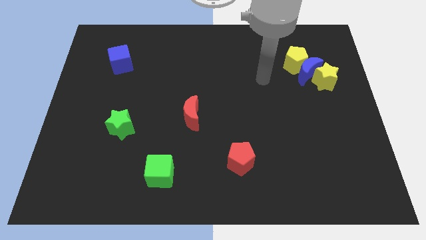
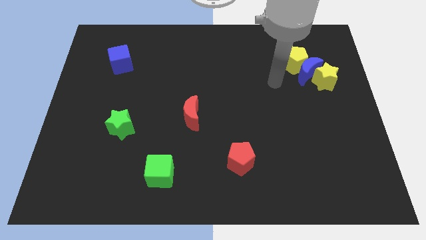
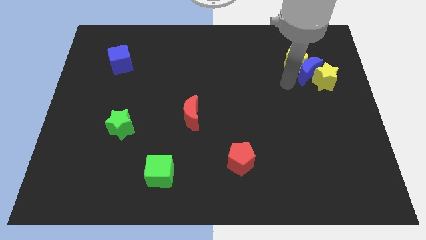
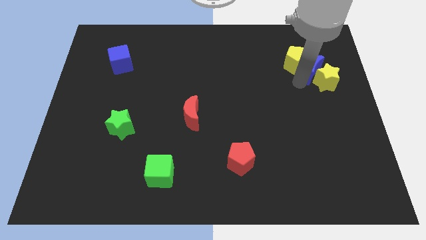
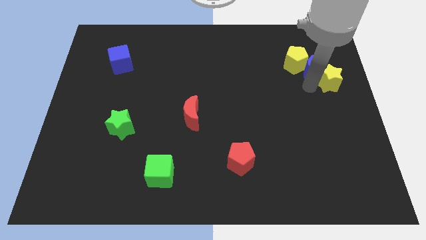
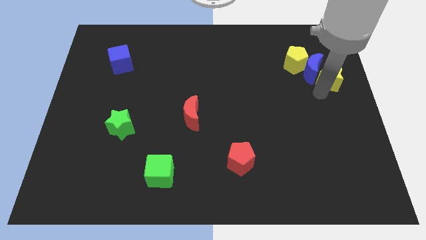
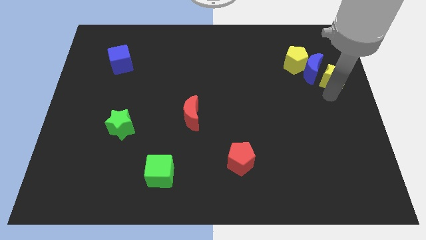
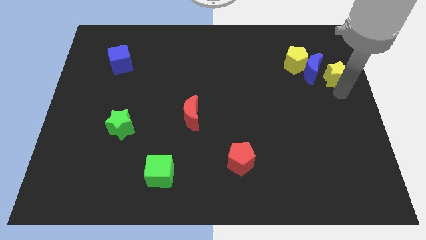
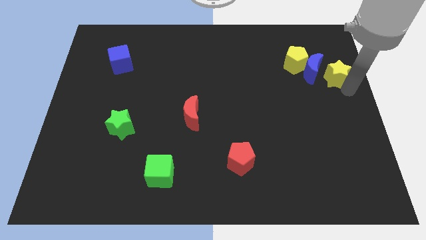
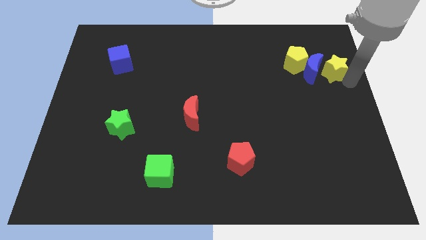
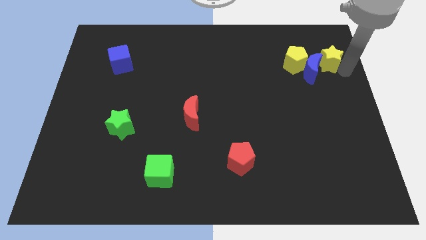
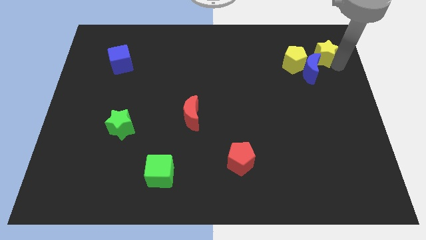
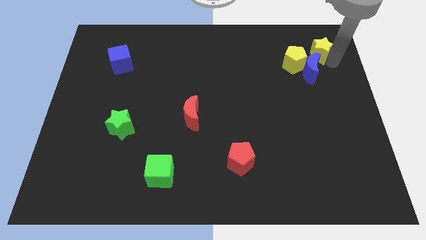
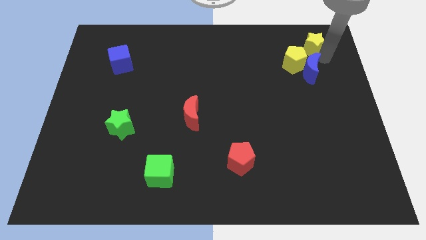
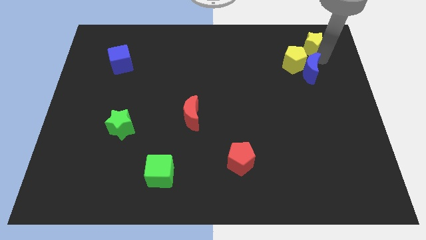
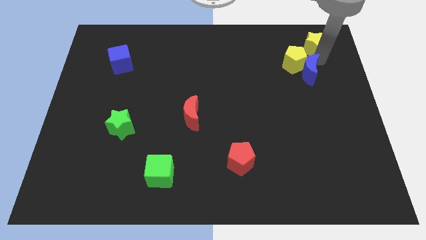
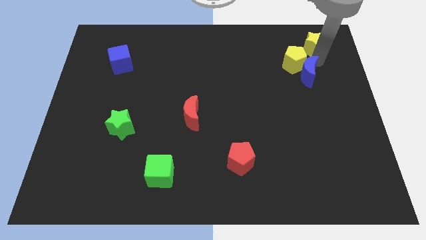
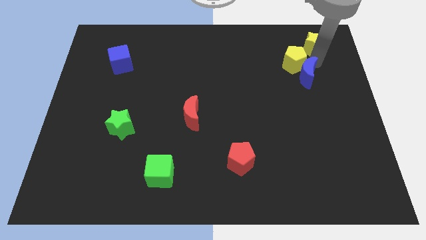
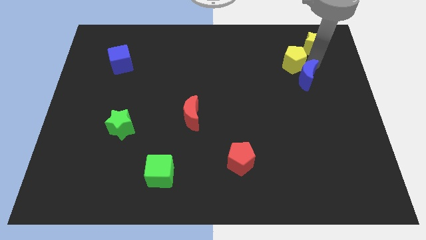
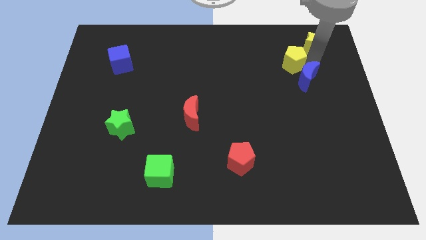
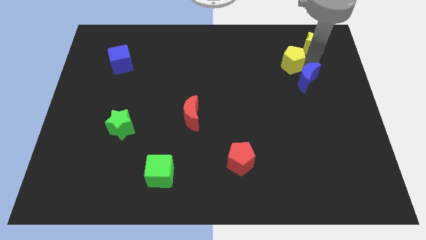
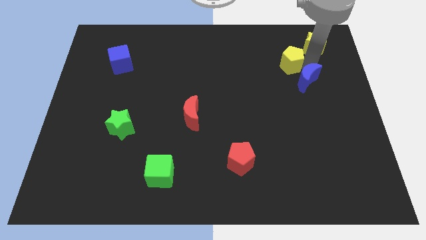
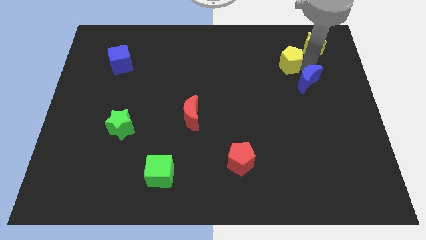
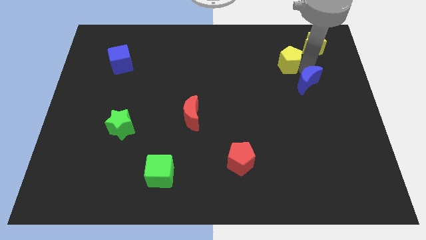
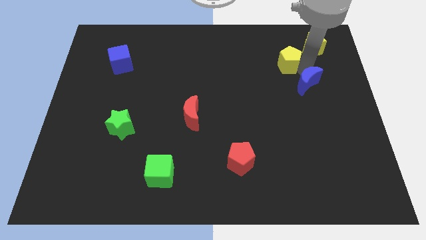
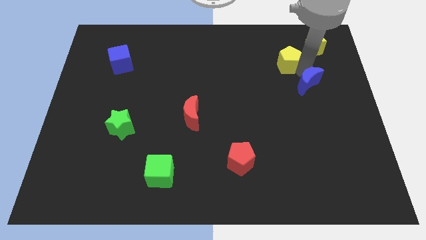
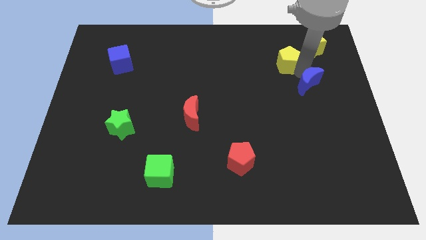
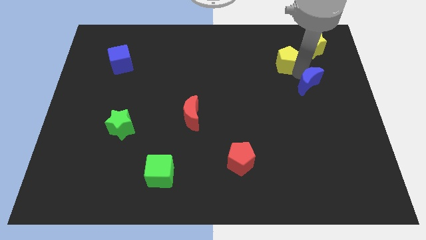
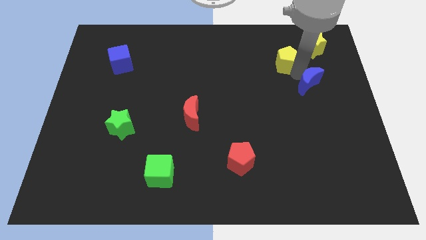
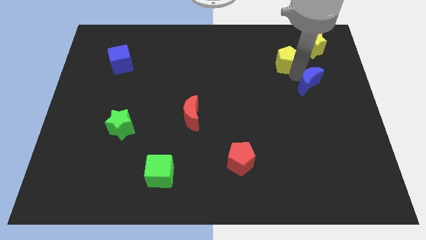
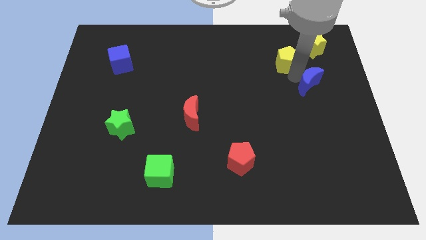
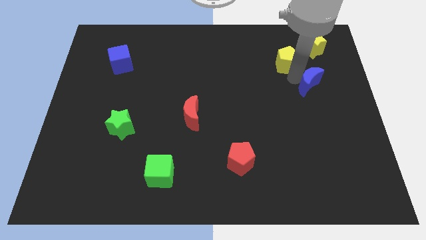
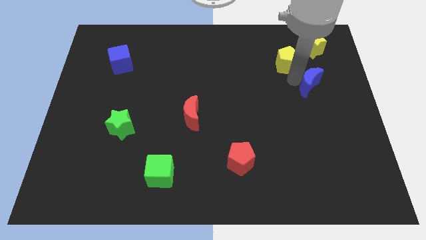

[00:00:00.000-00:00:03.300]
move the blue moon away from the yellow pentagon and yellow star

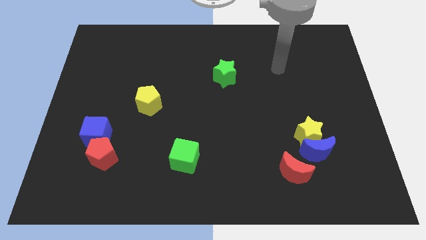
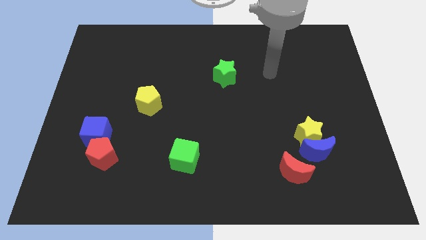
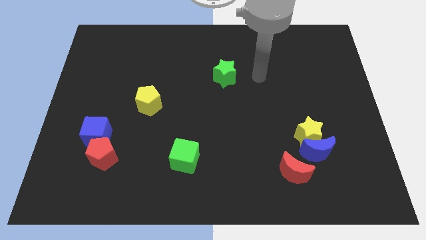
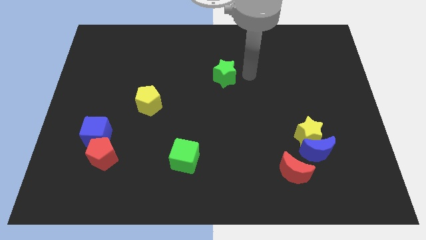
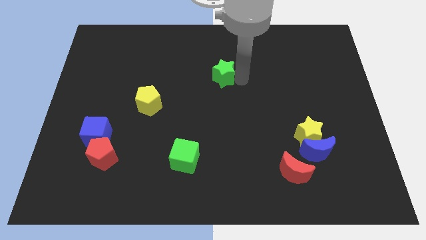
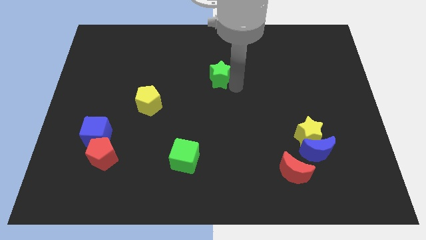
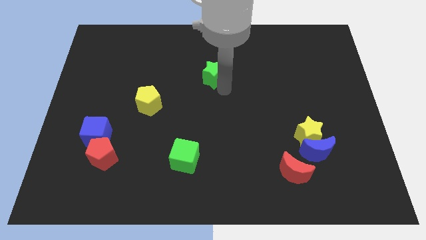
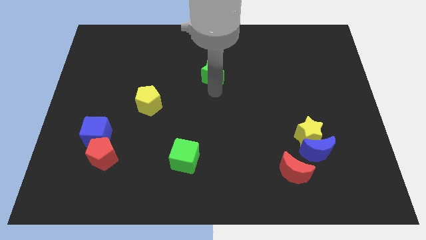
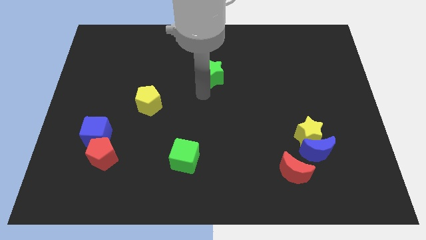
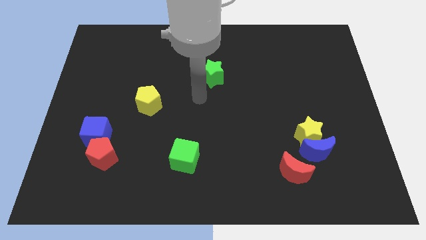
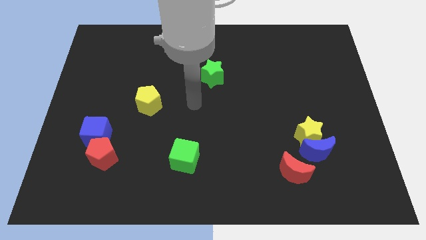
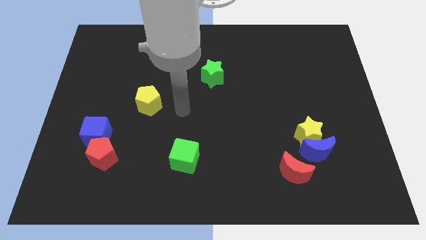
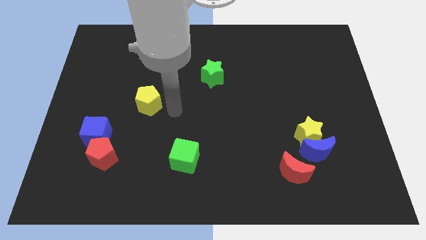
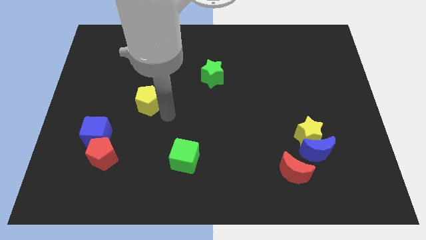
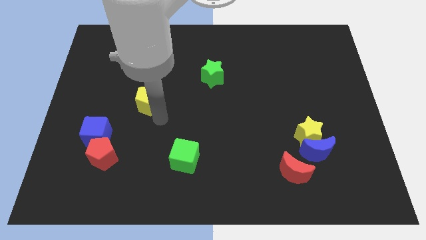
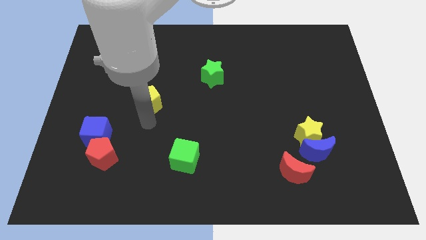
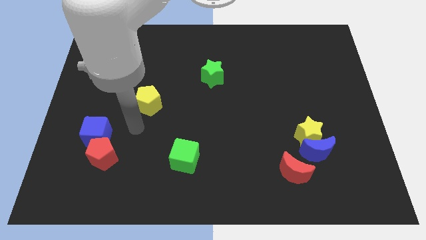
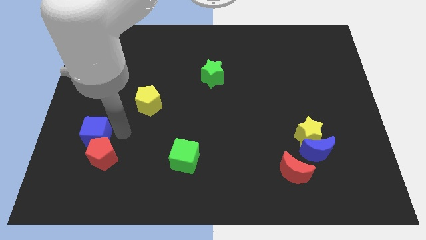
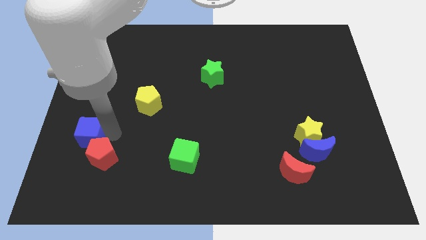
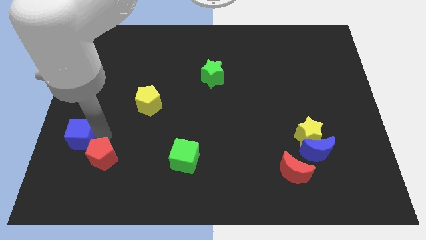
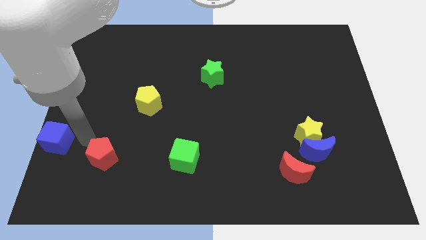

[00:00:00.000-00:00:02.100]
separate the red pentagon from the blue cube

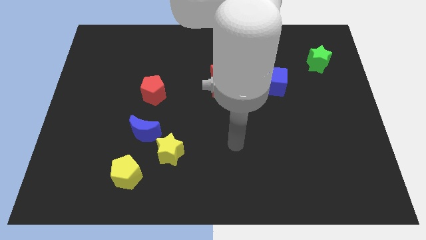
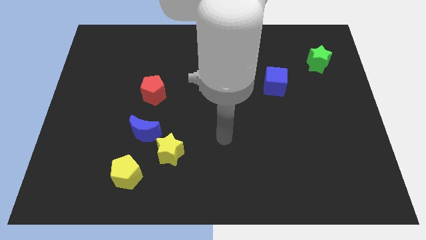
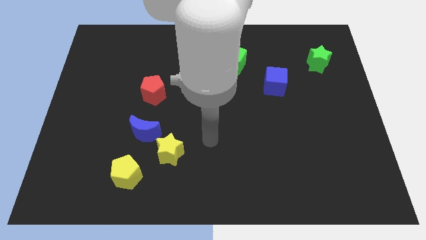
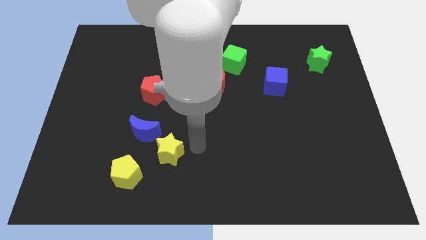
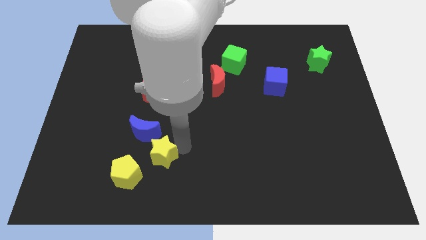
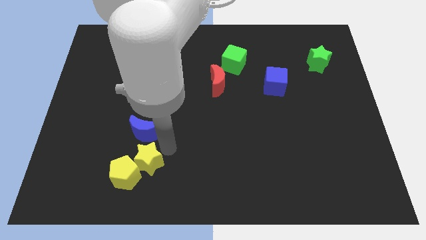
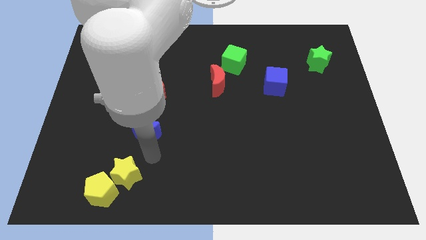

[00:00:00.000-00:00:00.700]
move the blue moon away from the yellow star

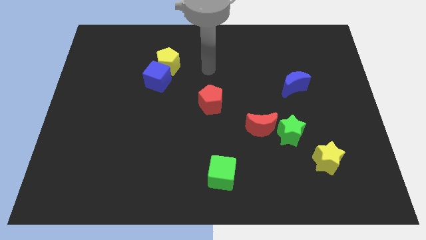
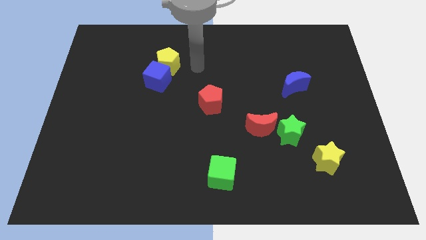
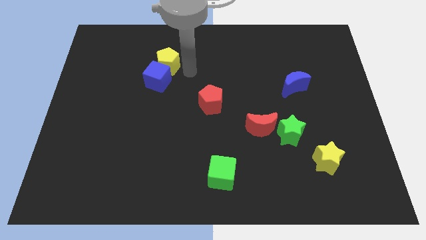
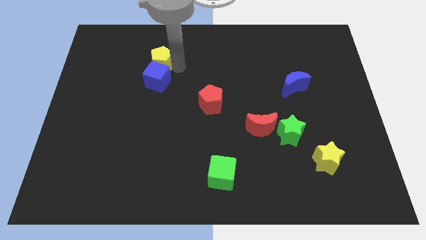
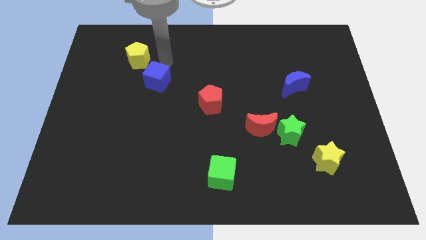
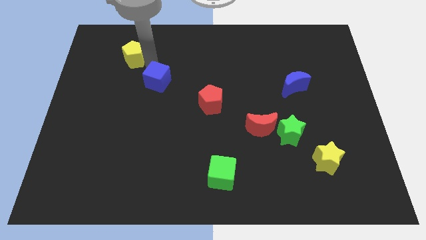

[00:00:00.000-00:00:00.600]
separate the blue cube from the yellow pentagon

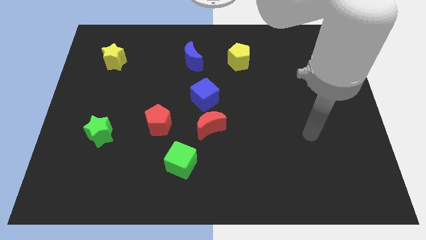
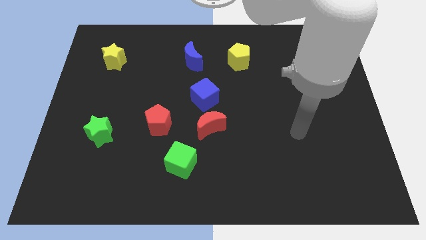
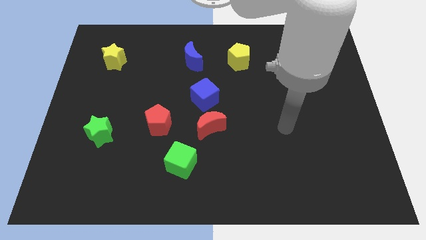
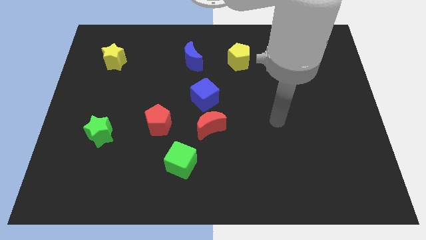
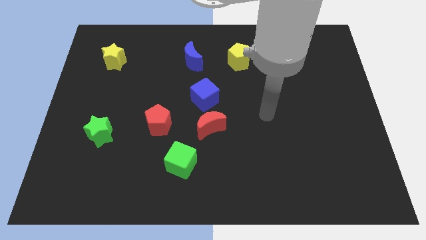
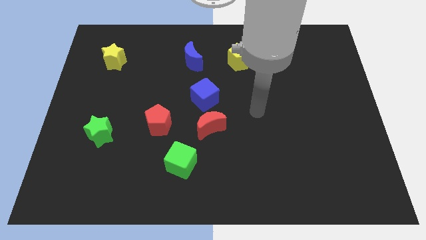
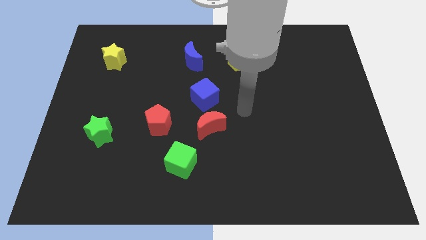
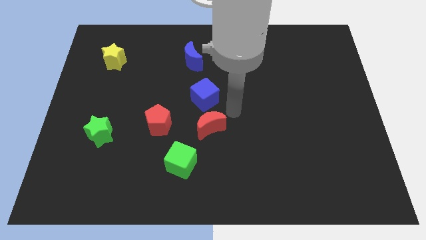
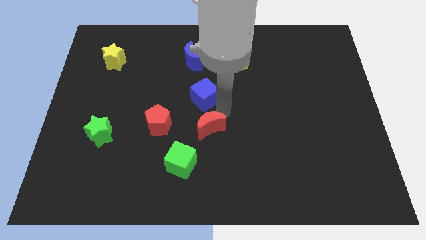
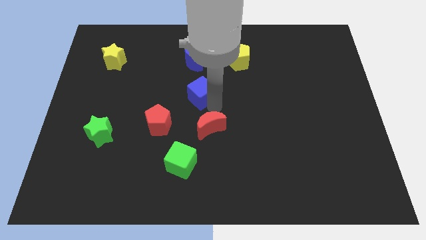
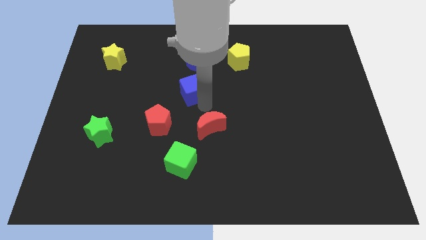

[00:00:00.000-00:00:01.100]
separate the red moon from the blue cube

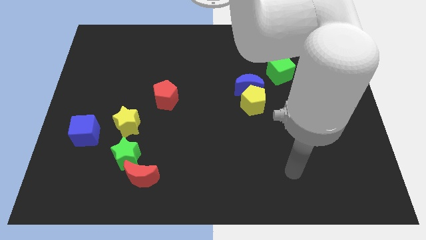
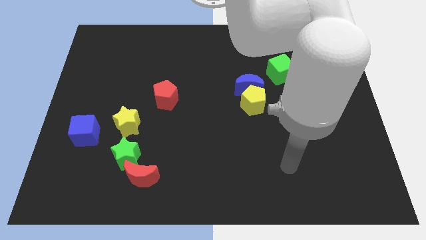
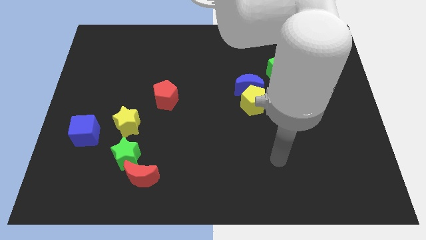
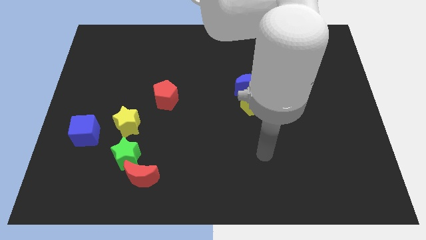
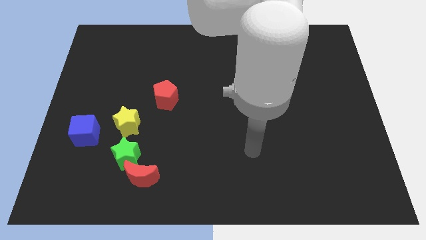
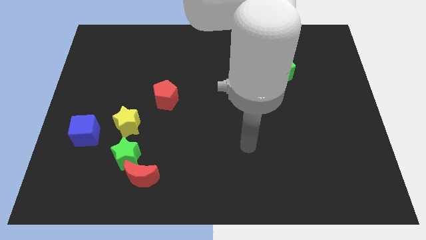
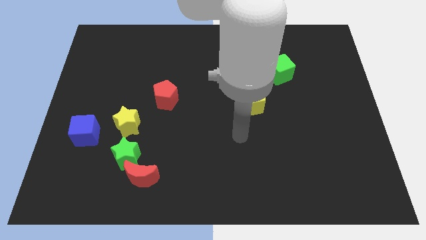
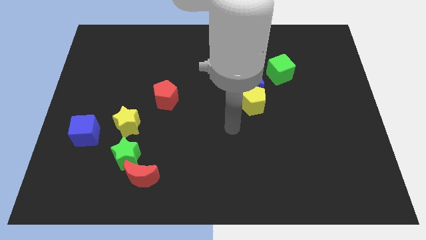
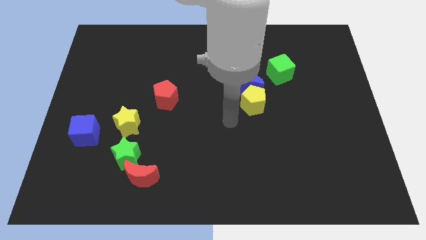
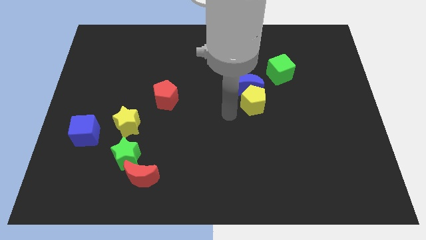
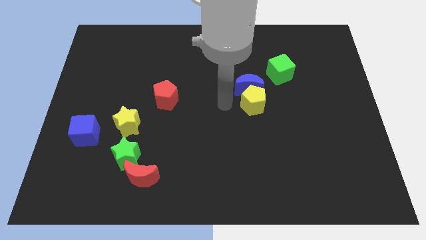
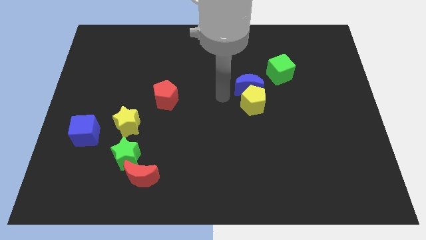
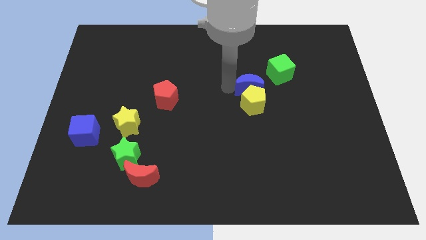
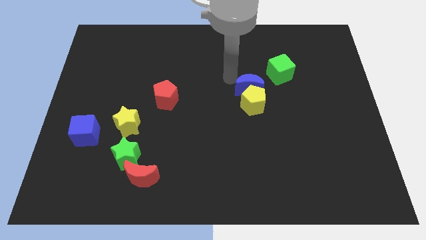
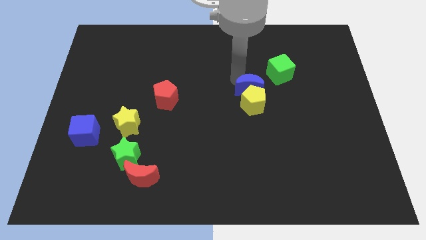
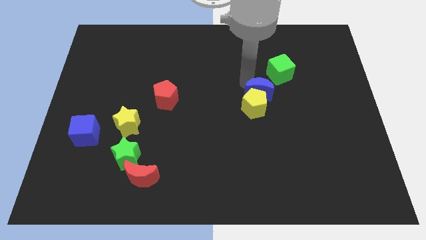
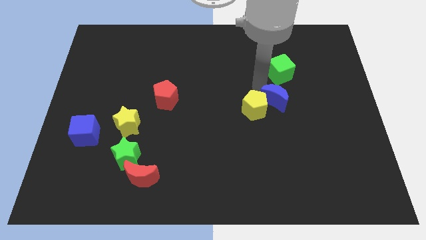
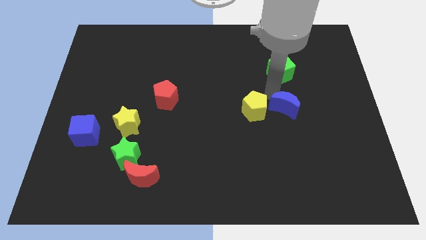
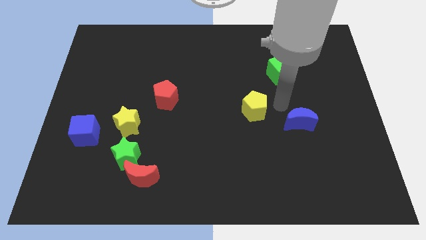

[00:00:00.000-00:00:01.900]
separate the yellow pentagon from the blue moon
